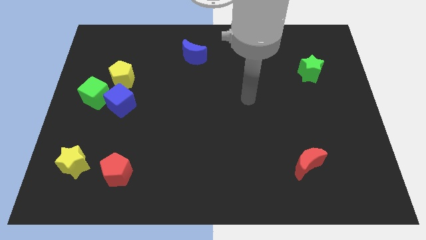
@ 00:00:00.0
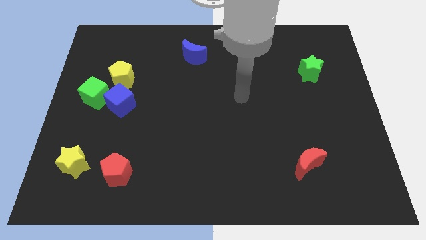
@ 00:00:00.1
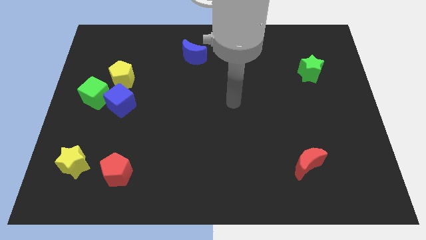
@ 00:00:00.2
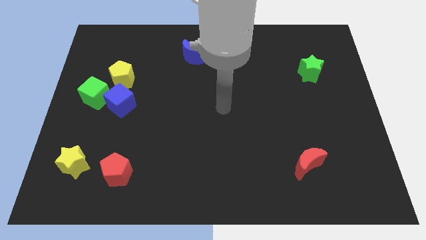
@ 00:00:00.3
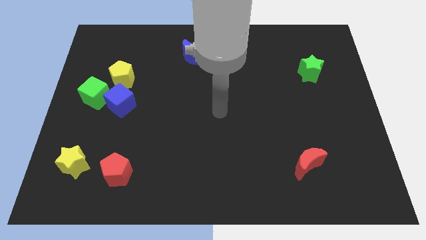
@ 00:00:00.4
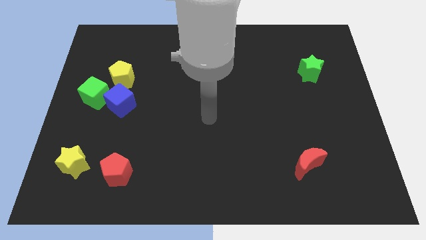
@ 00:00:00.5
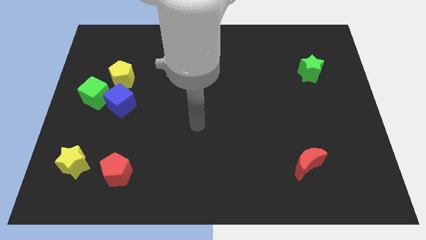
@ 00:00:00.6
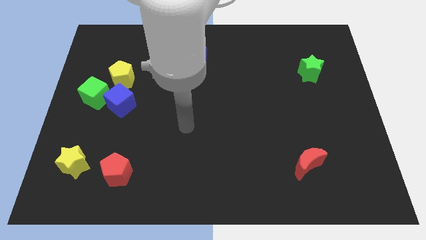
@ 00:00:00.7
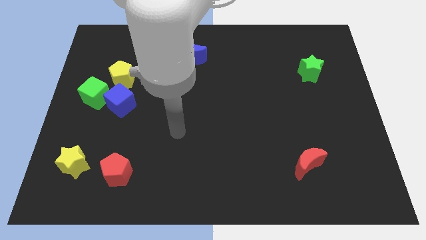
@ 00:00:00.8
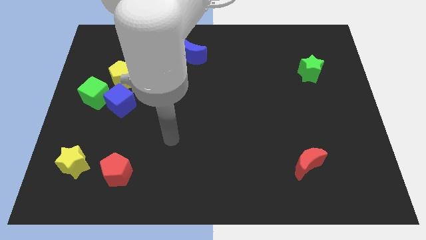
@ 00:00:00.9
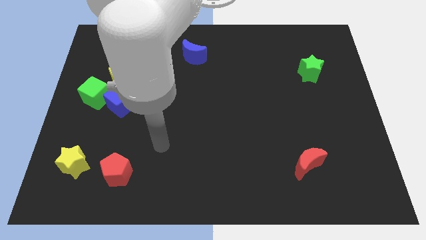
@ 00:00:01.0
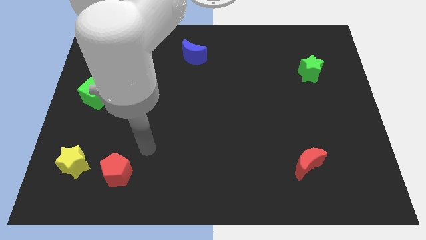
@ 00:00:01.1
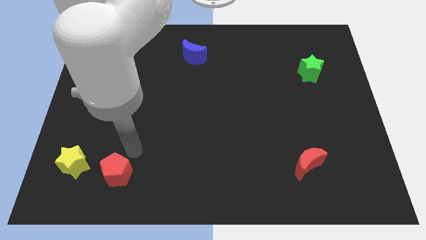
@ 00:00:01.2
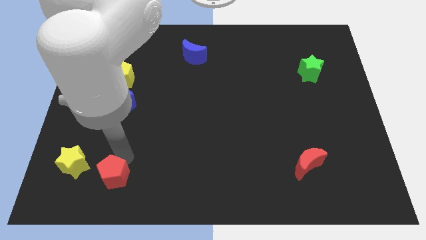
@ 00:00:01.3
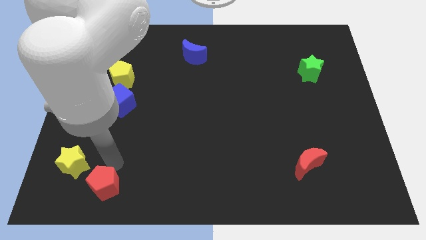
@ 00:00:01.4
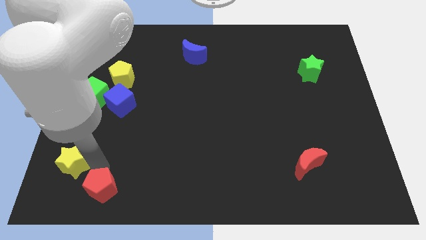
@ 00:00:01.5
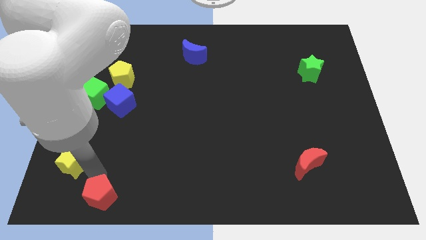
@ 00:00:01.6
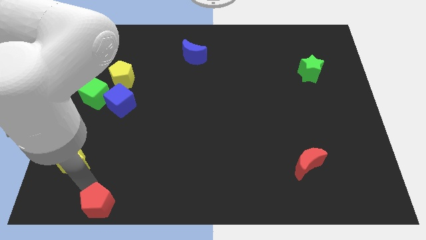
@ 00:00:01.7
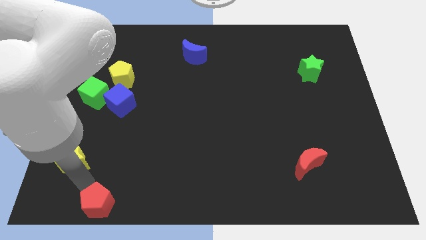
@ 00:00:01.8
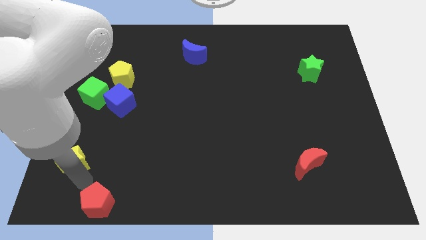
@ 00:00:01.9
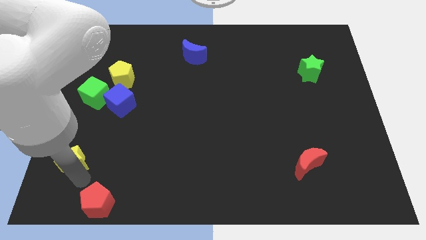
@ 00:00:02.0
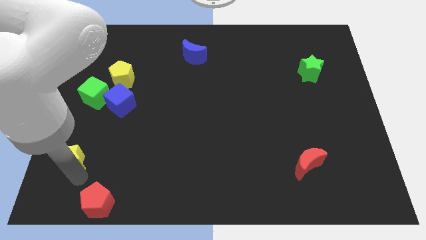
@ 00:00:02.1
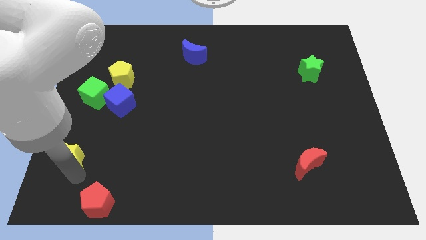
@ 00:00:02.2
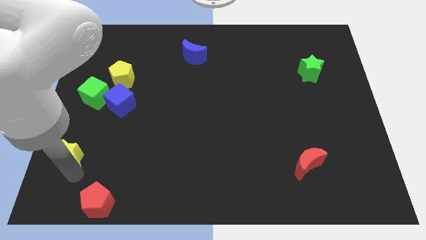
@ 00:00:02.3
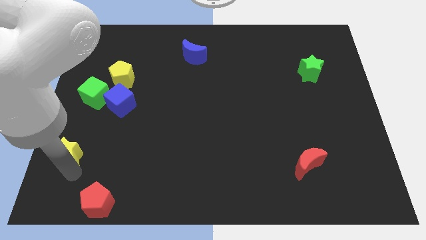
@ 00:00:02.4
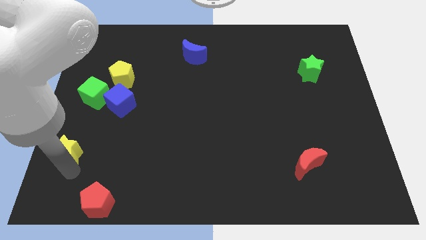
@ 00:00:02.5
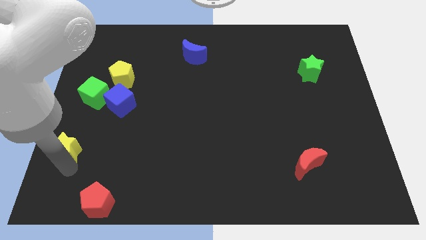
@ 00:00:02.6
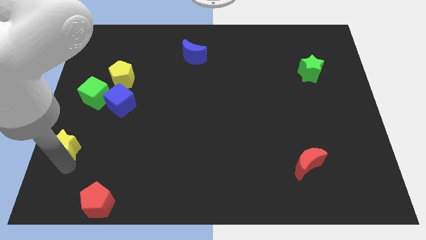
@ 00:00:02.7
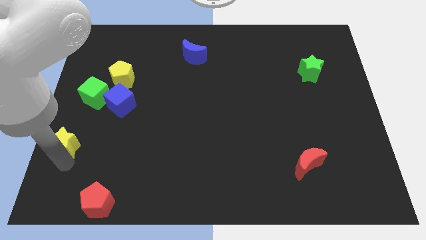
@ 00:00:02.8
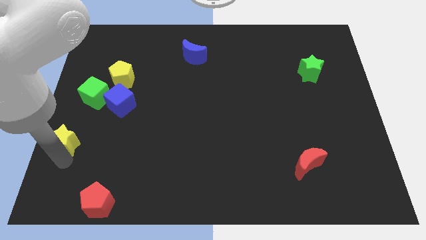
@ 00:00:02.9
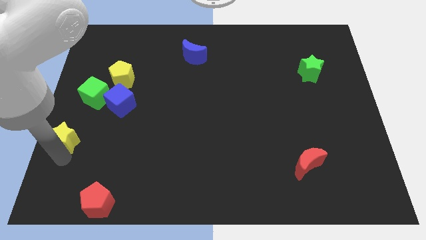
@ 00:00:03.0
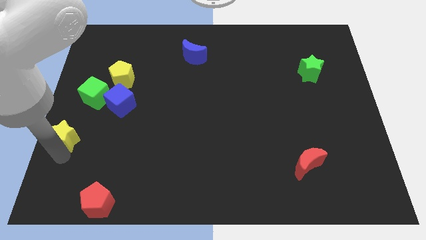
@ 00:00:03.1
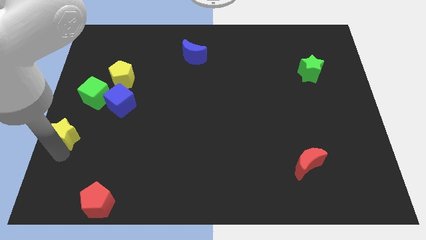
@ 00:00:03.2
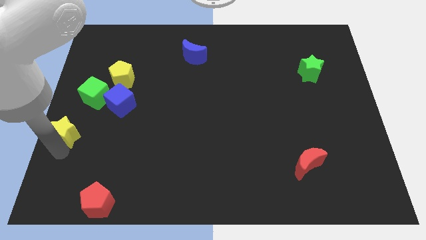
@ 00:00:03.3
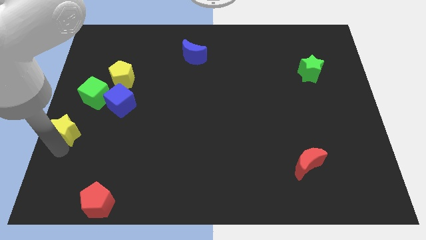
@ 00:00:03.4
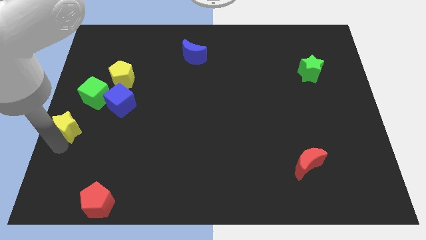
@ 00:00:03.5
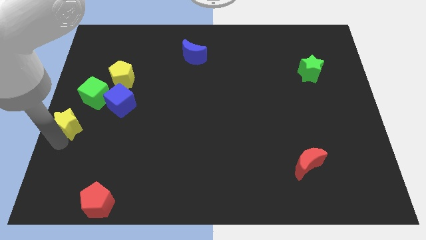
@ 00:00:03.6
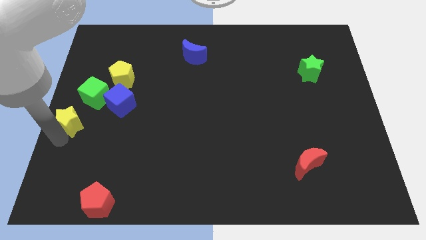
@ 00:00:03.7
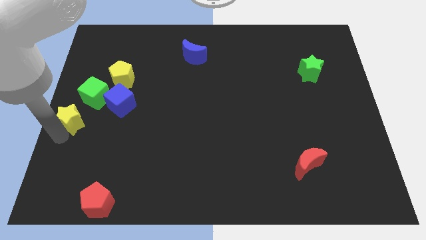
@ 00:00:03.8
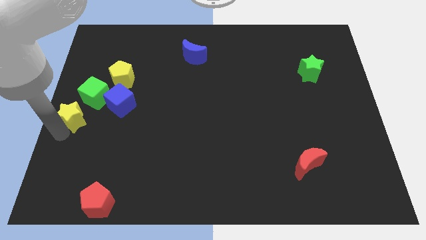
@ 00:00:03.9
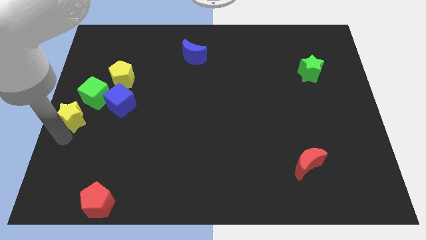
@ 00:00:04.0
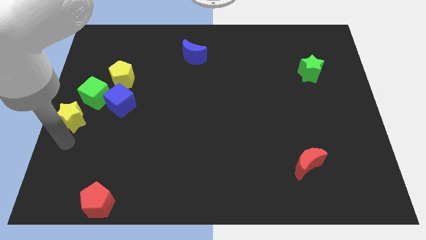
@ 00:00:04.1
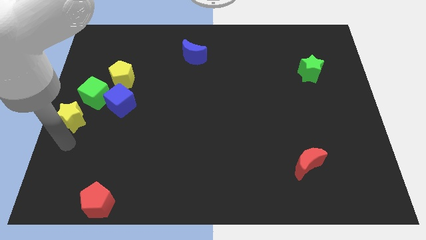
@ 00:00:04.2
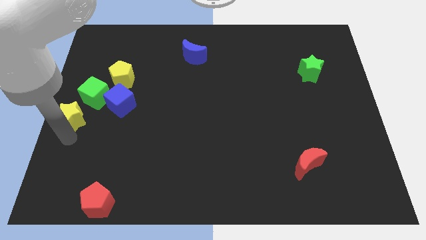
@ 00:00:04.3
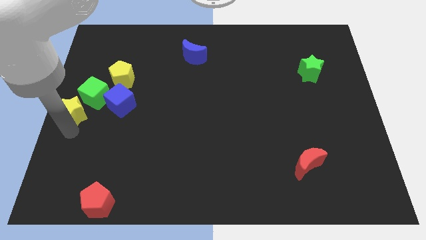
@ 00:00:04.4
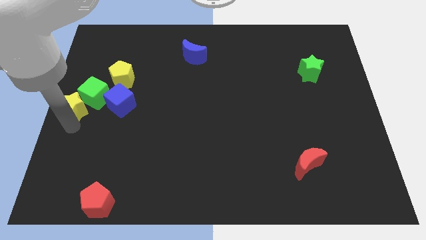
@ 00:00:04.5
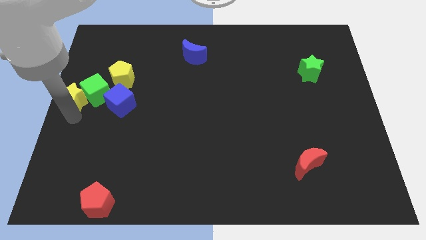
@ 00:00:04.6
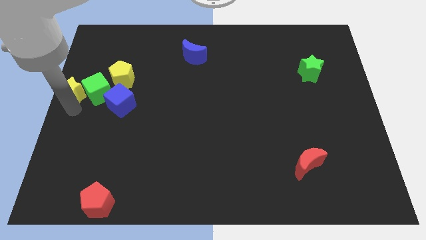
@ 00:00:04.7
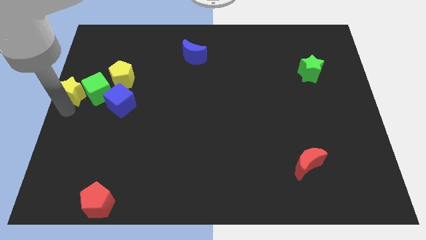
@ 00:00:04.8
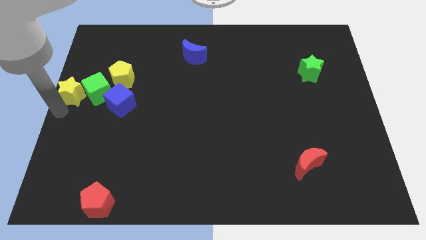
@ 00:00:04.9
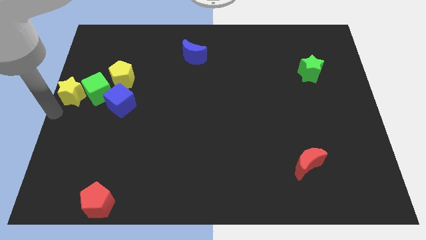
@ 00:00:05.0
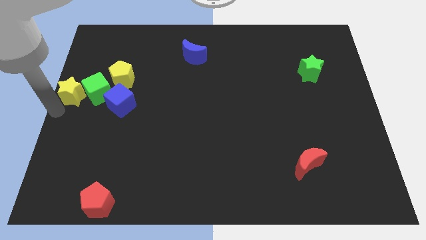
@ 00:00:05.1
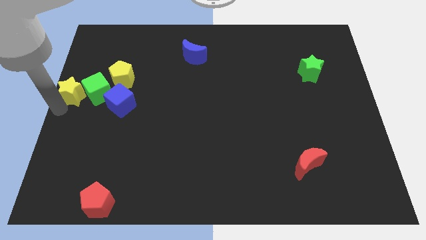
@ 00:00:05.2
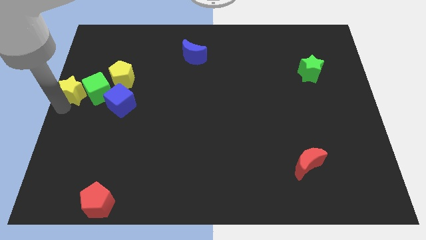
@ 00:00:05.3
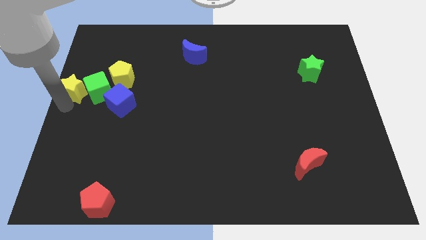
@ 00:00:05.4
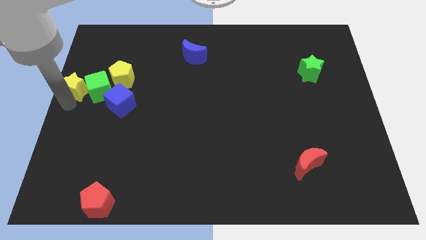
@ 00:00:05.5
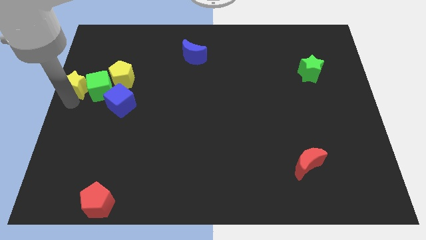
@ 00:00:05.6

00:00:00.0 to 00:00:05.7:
slide the yellow star upwards

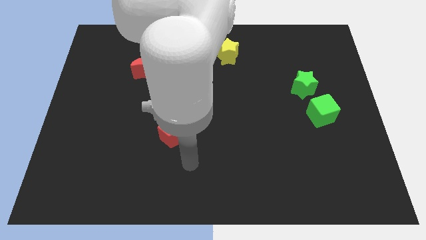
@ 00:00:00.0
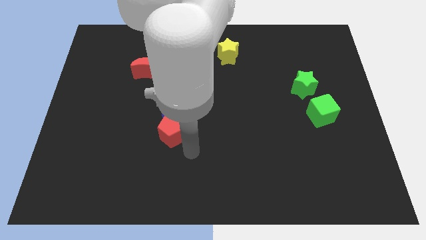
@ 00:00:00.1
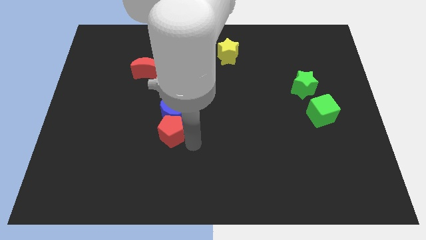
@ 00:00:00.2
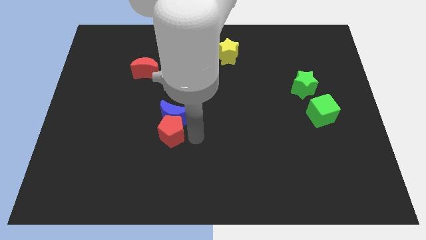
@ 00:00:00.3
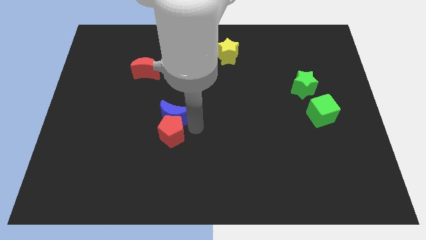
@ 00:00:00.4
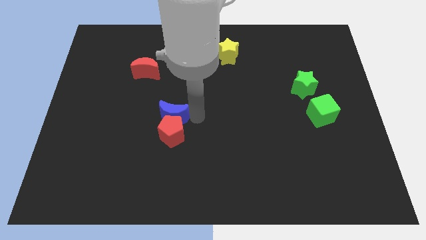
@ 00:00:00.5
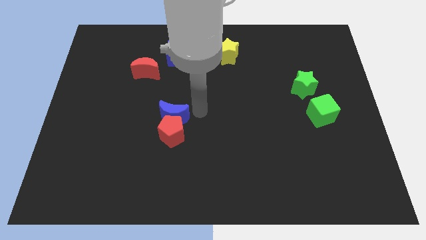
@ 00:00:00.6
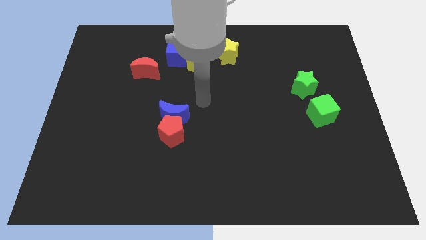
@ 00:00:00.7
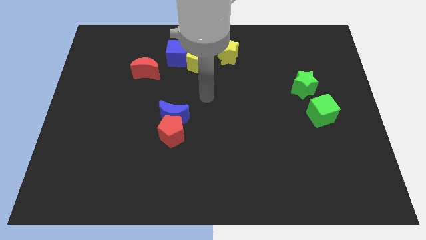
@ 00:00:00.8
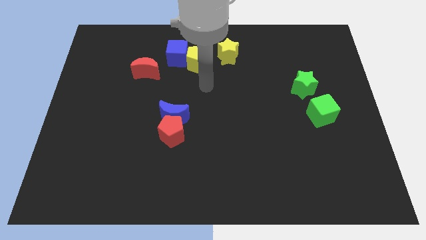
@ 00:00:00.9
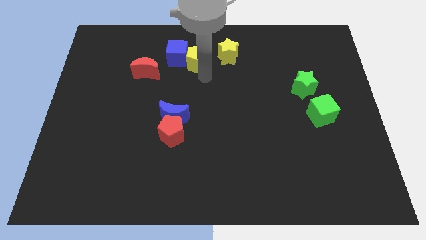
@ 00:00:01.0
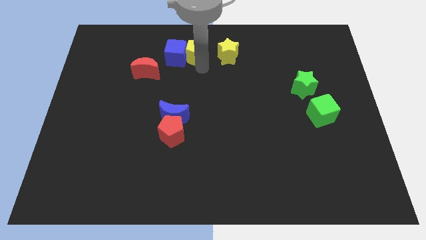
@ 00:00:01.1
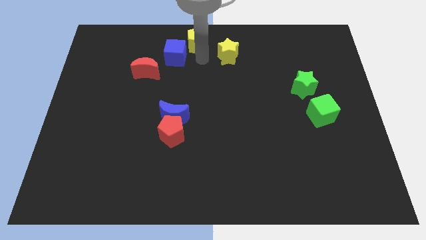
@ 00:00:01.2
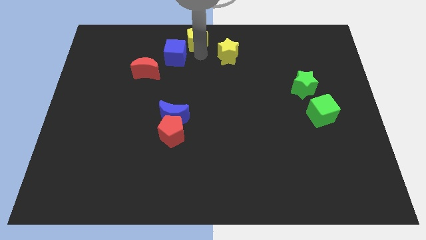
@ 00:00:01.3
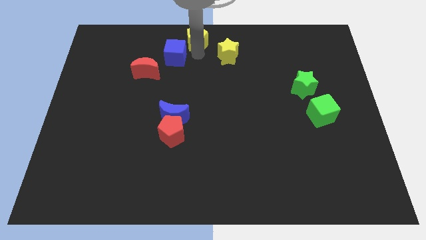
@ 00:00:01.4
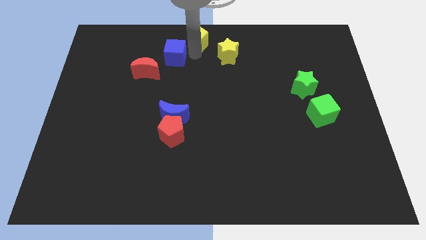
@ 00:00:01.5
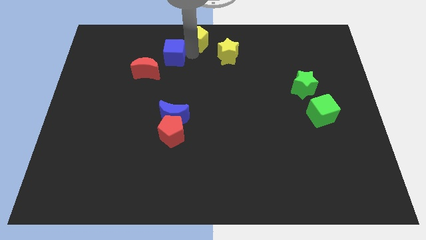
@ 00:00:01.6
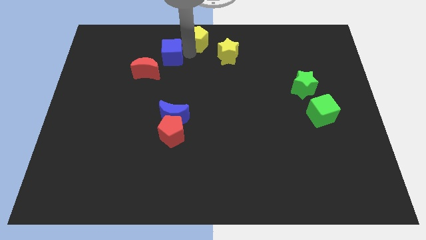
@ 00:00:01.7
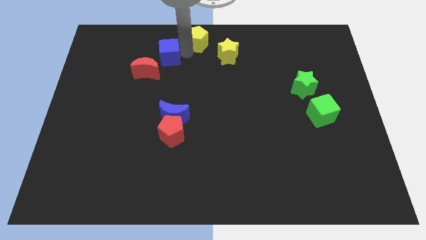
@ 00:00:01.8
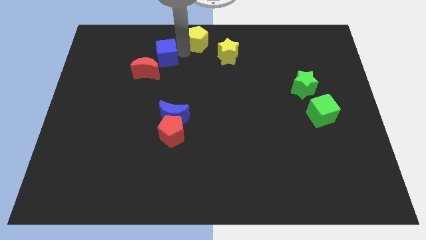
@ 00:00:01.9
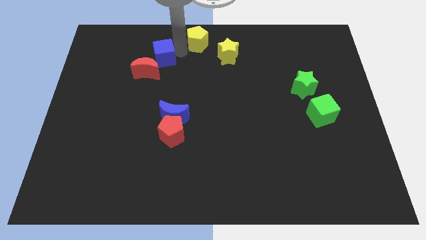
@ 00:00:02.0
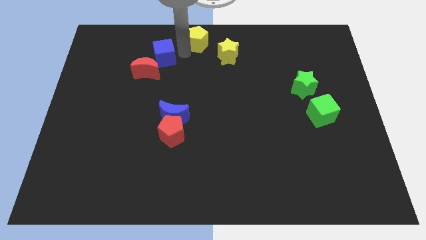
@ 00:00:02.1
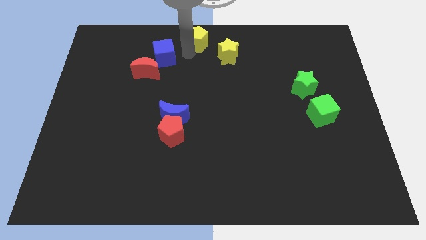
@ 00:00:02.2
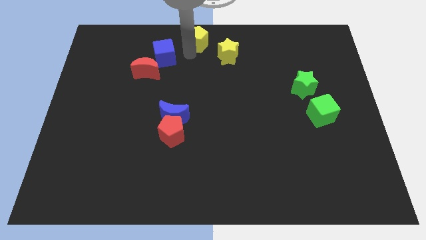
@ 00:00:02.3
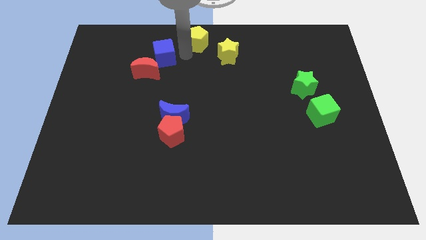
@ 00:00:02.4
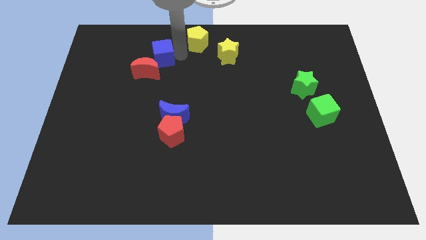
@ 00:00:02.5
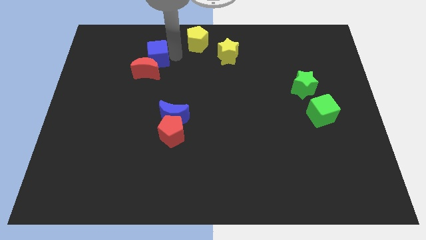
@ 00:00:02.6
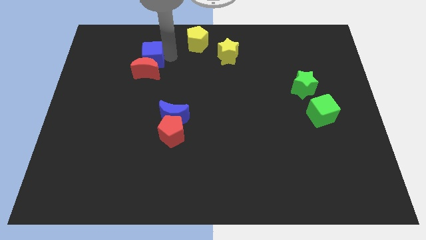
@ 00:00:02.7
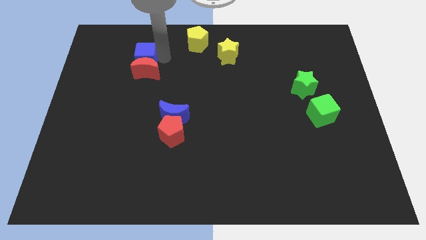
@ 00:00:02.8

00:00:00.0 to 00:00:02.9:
move the blue cube a little bit to the left
